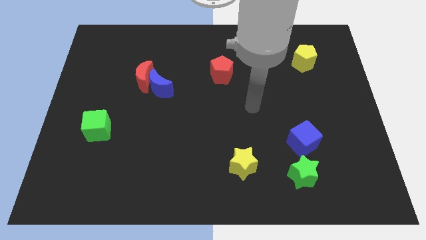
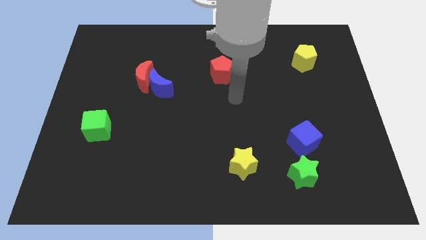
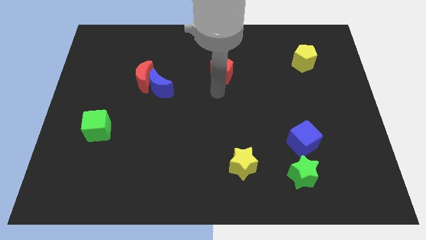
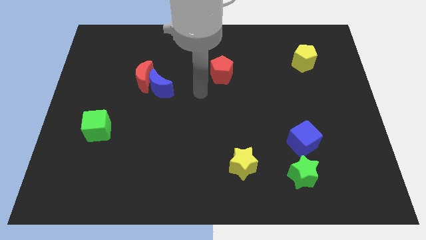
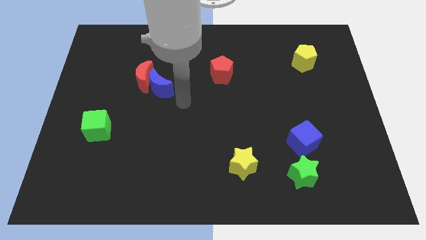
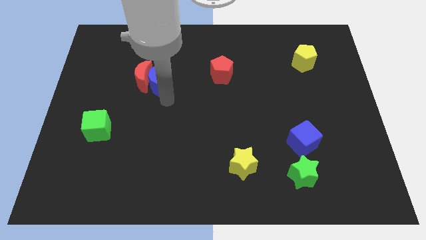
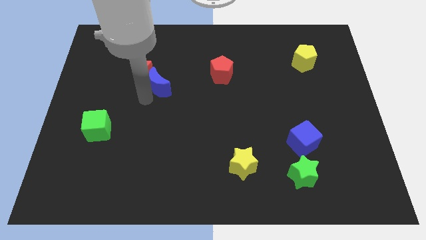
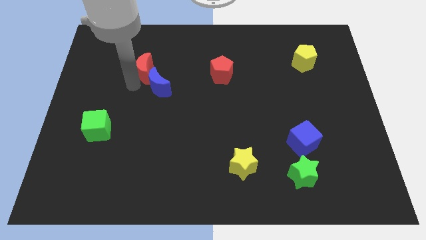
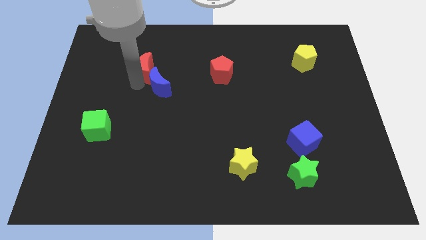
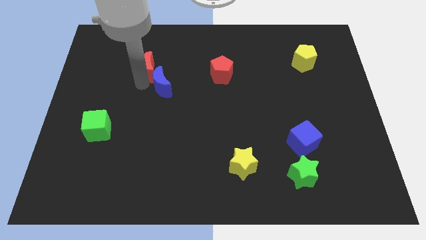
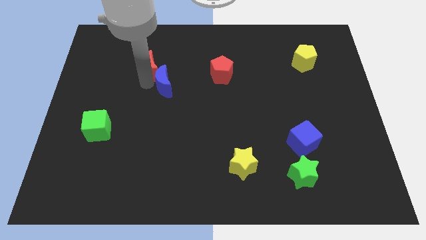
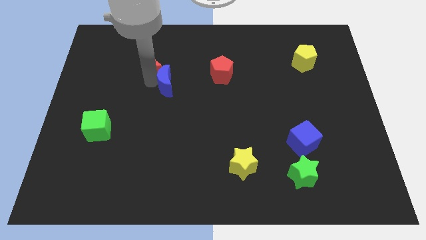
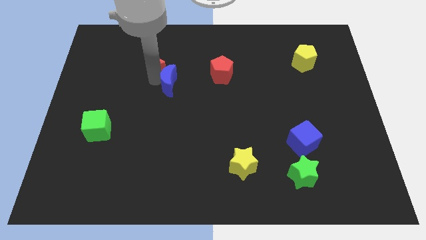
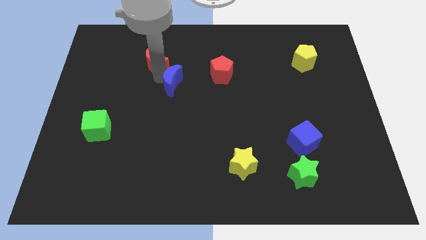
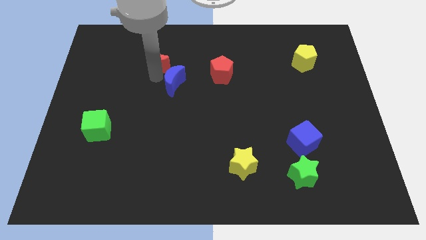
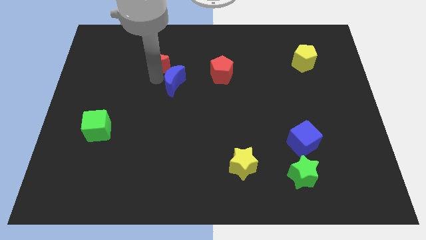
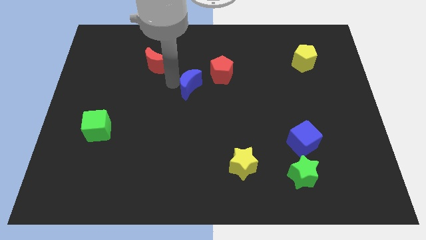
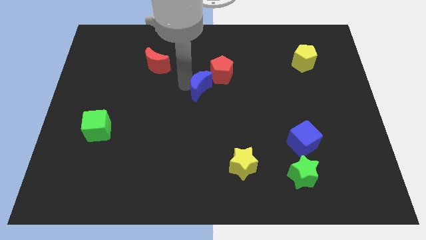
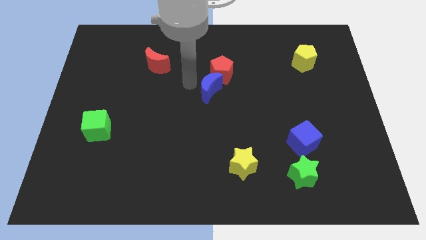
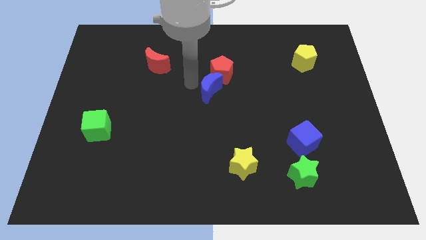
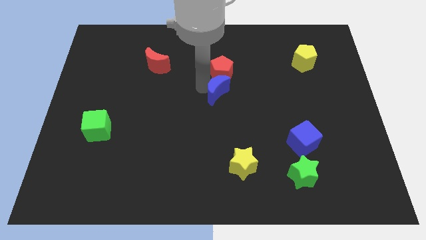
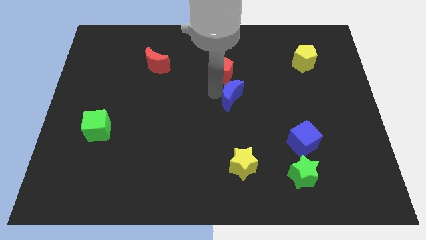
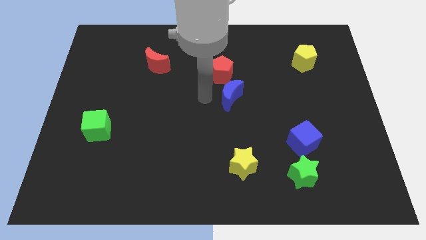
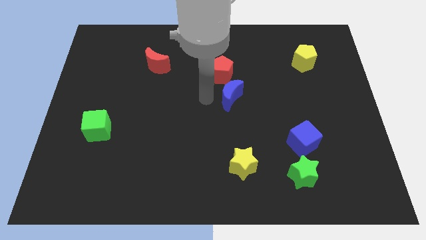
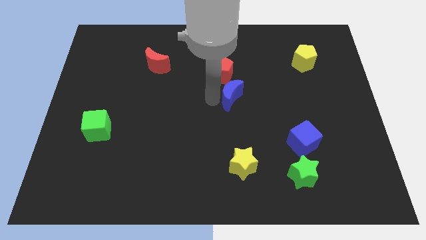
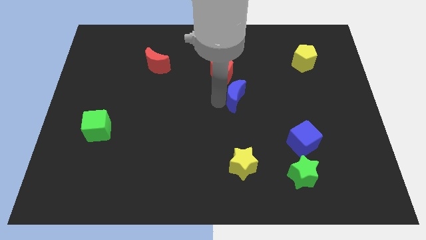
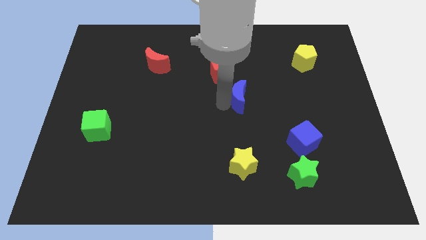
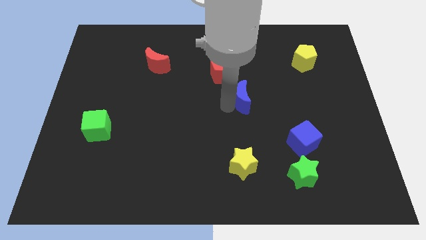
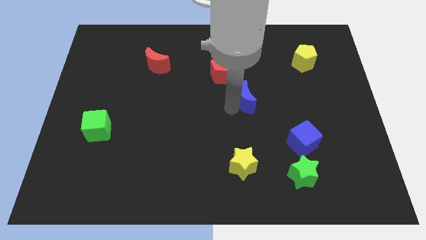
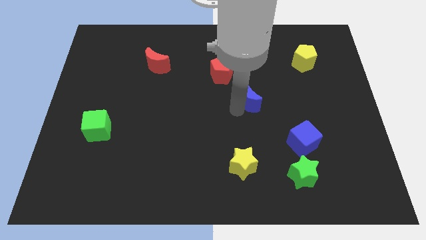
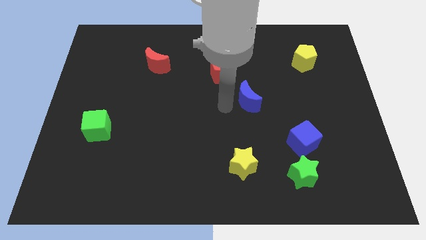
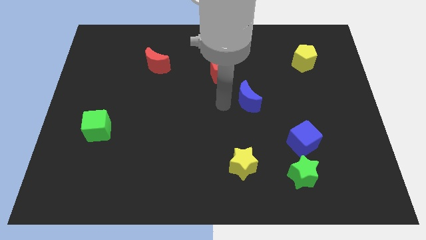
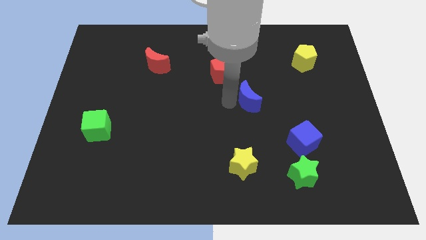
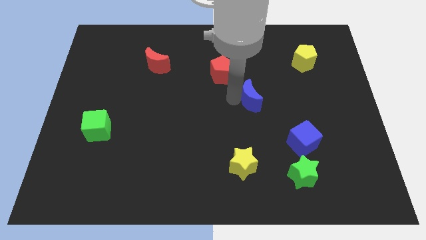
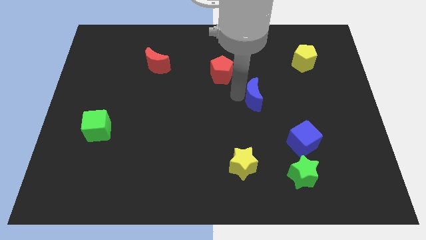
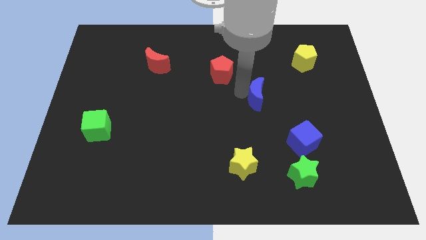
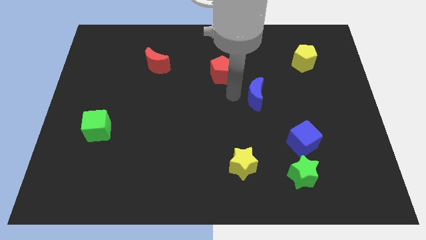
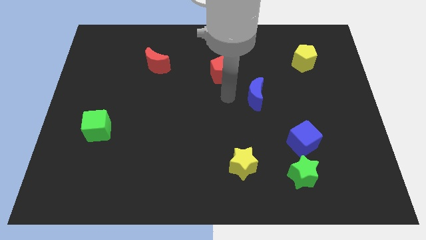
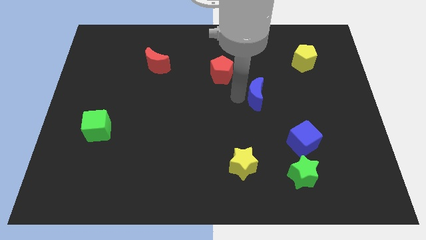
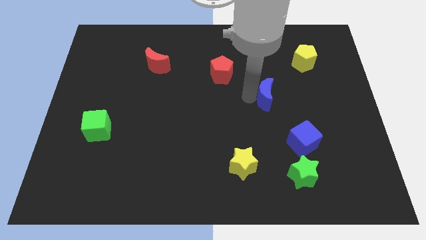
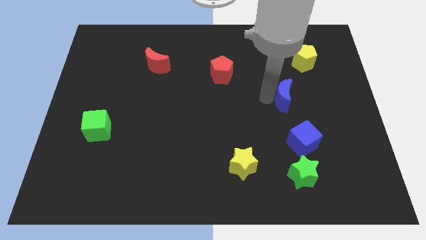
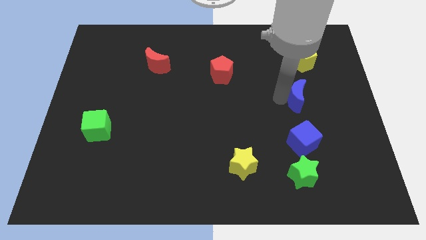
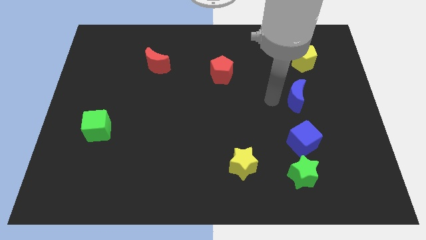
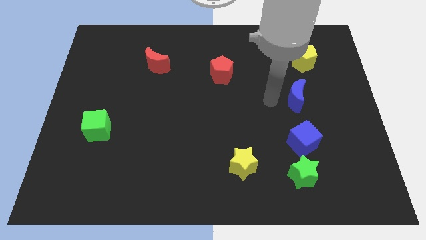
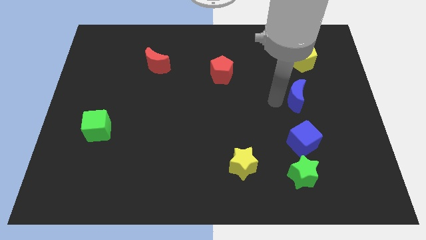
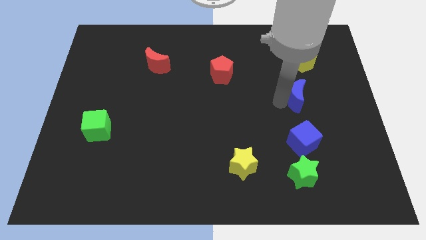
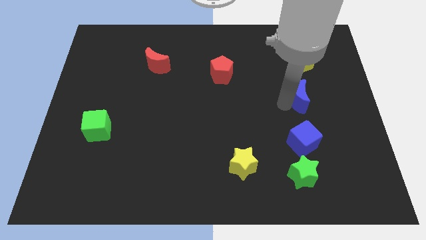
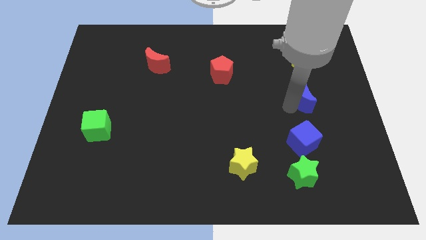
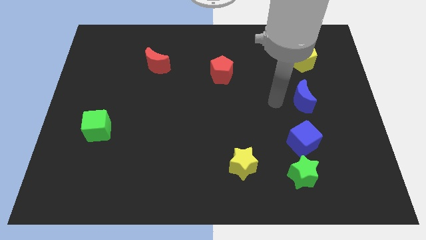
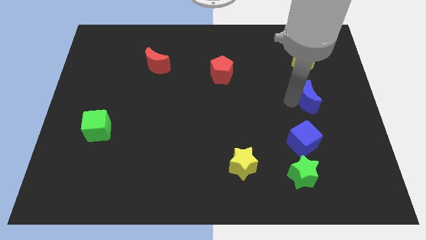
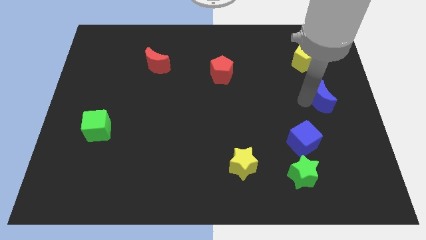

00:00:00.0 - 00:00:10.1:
push the blue moon to the right side

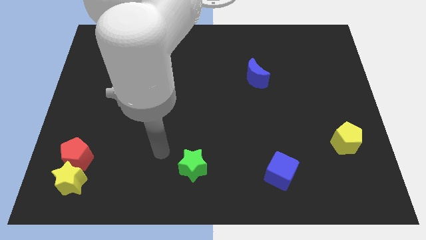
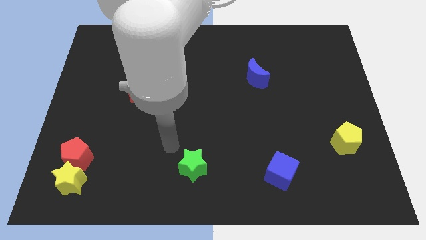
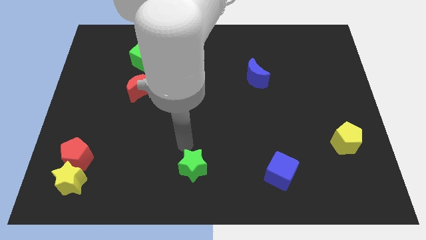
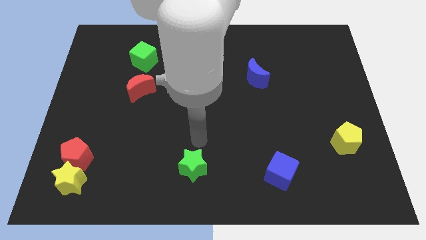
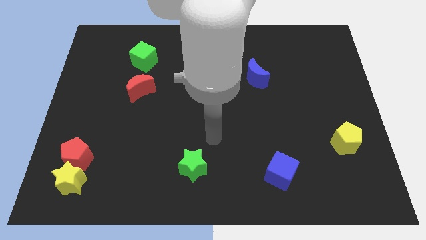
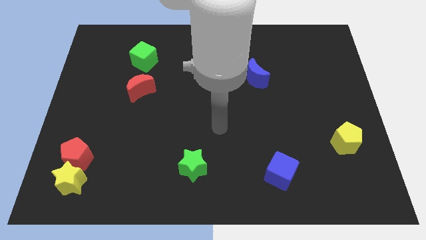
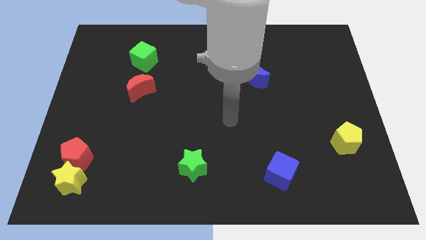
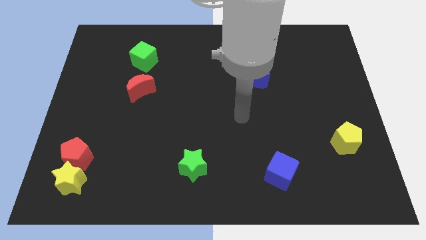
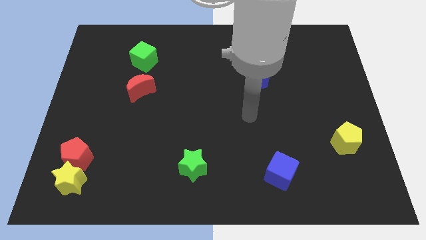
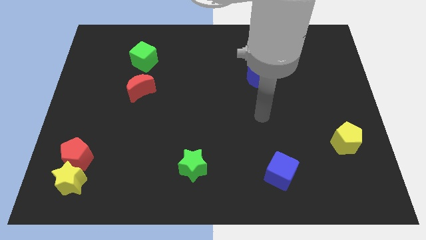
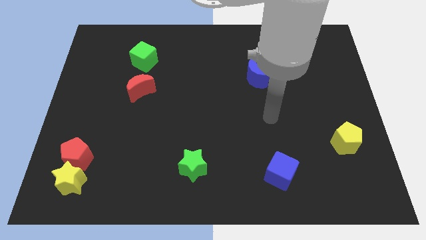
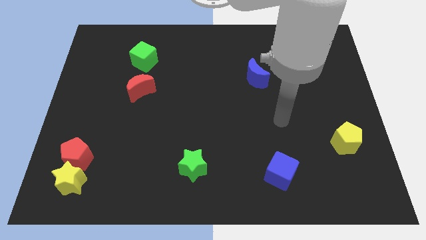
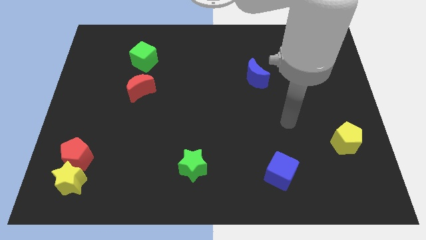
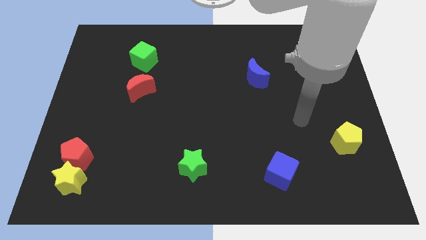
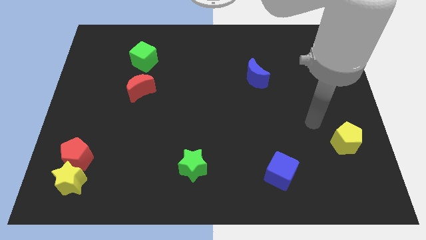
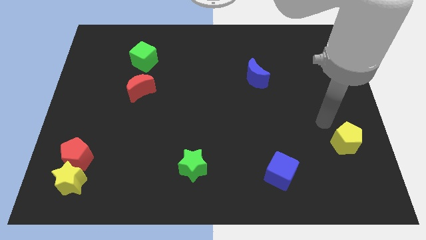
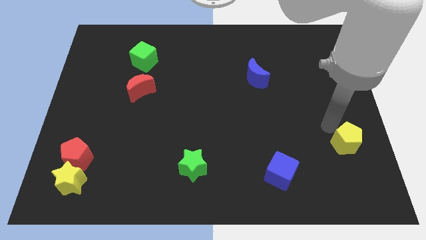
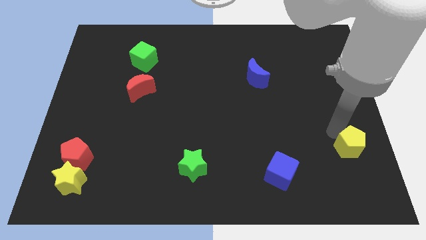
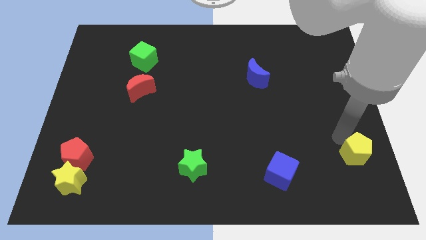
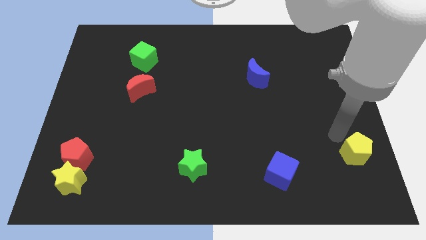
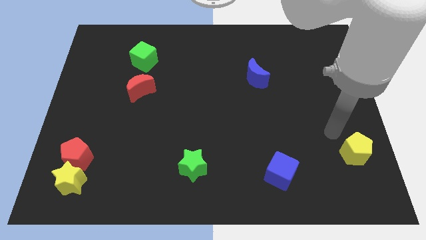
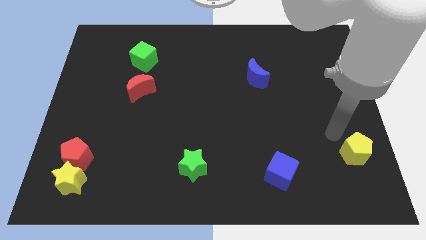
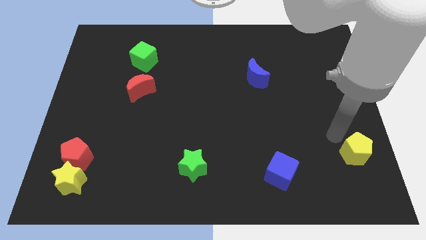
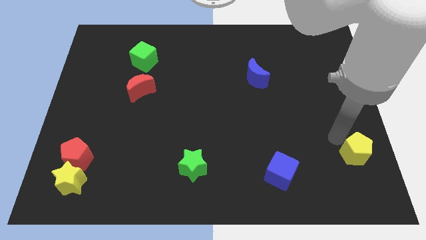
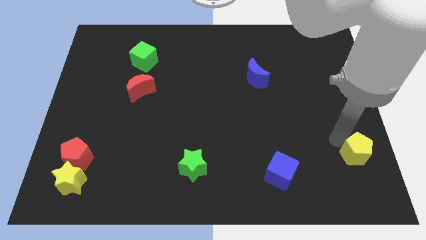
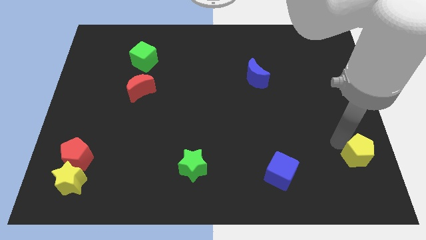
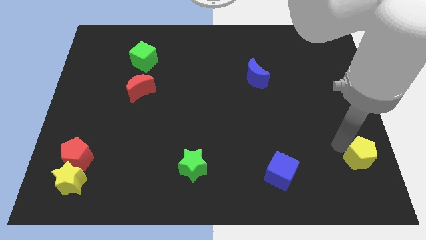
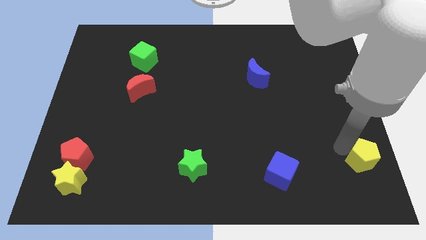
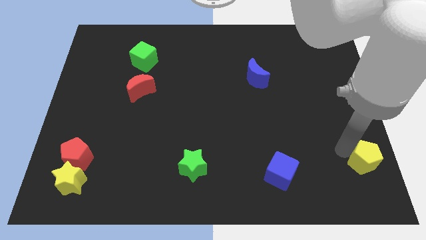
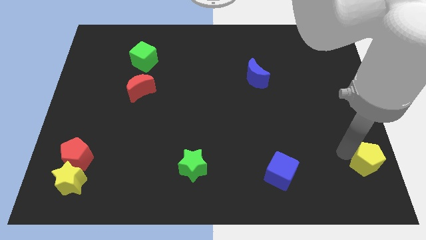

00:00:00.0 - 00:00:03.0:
push the yellow pentagon to the bottom right of the board
